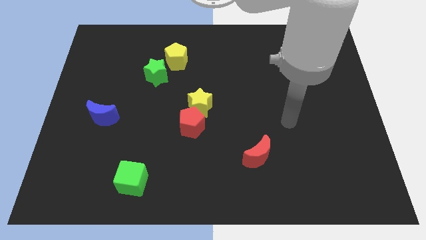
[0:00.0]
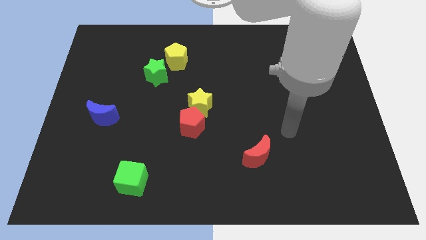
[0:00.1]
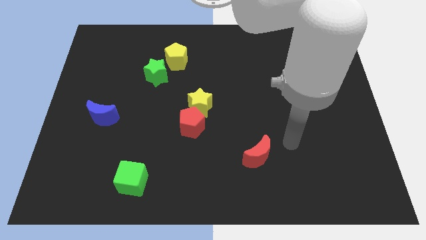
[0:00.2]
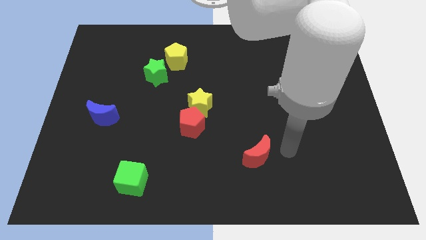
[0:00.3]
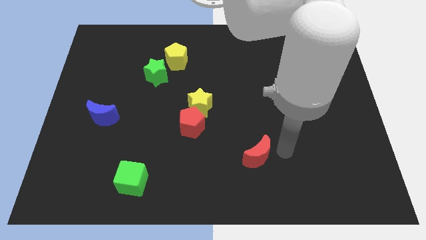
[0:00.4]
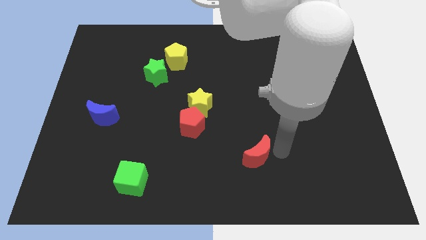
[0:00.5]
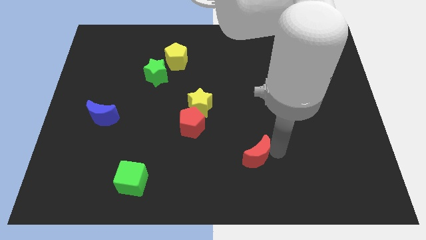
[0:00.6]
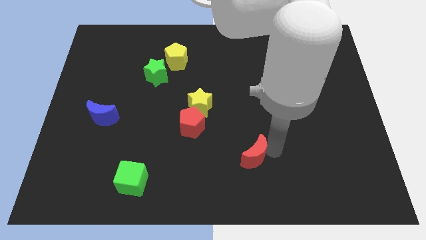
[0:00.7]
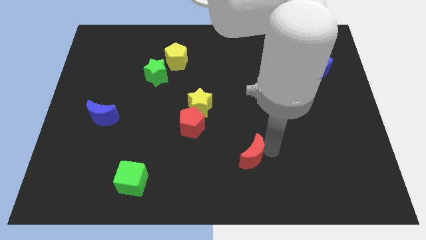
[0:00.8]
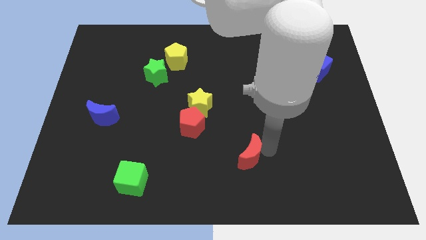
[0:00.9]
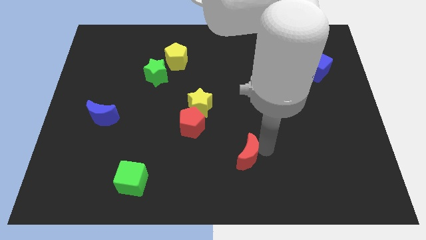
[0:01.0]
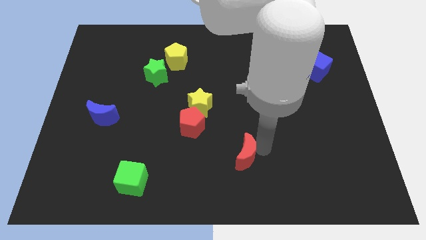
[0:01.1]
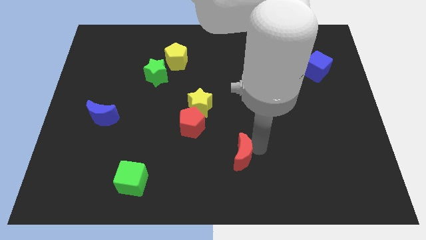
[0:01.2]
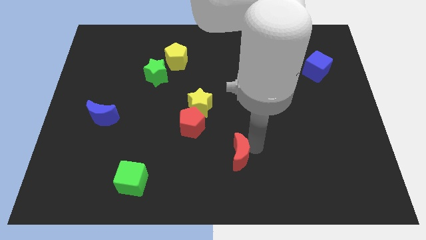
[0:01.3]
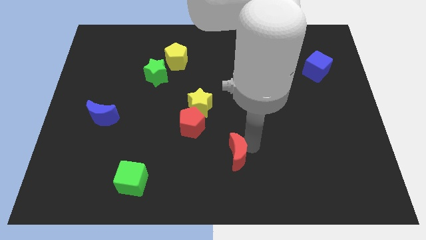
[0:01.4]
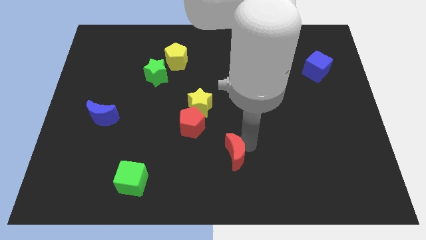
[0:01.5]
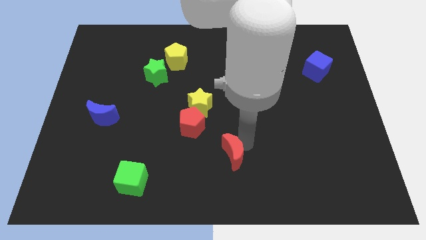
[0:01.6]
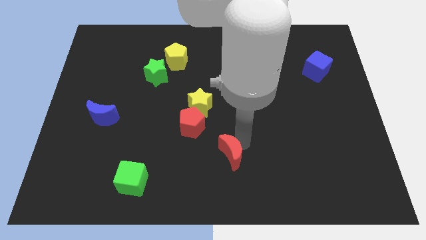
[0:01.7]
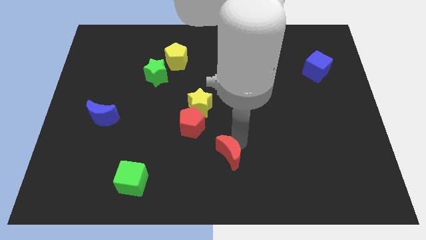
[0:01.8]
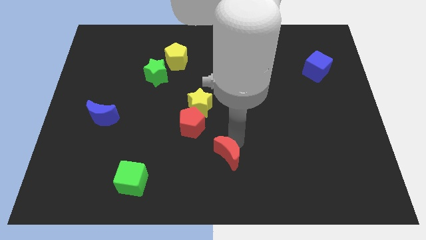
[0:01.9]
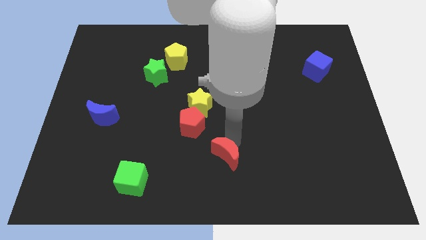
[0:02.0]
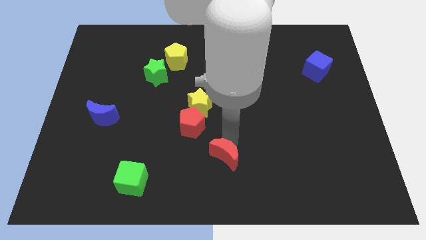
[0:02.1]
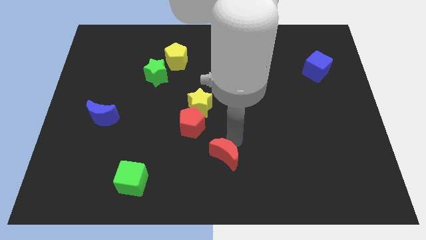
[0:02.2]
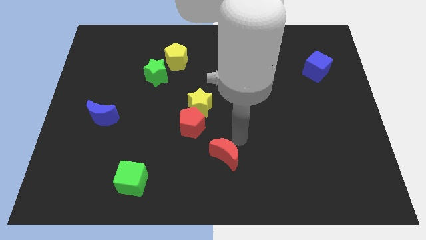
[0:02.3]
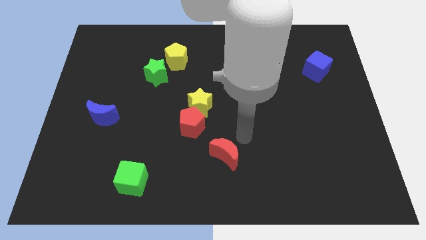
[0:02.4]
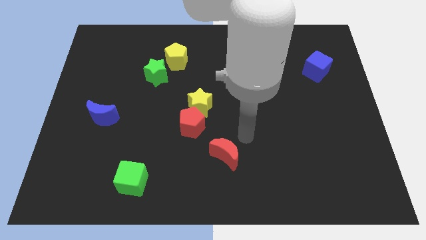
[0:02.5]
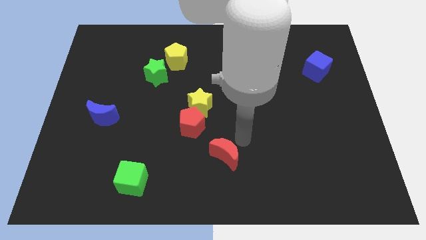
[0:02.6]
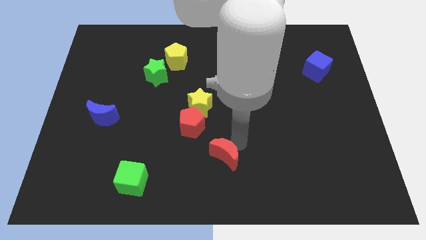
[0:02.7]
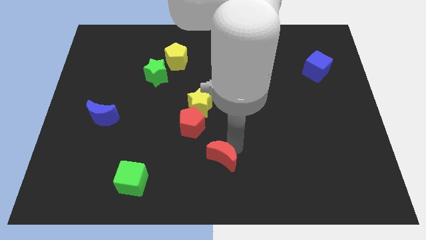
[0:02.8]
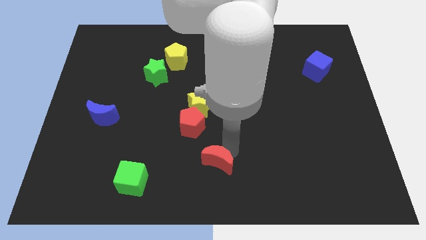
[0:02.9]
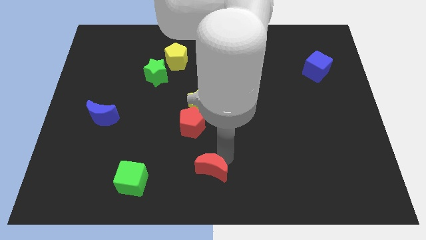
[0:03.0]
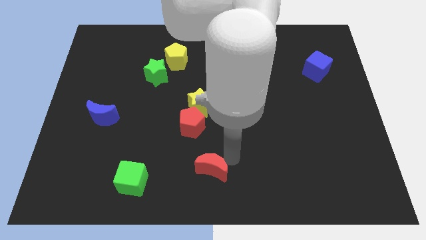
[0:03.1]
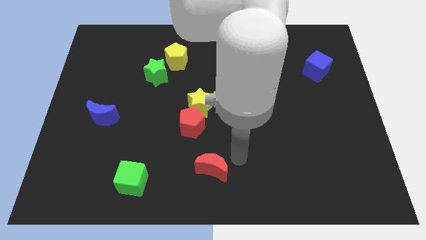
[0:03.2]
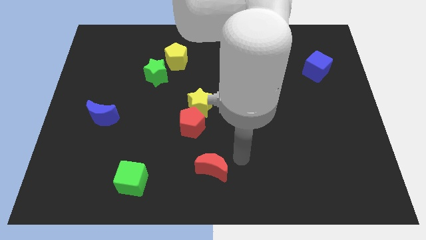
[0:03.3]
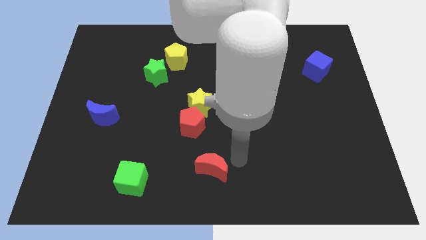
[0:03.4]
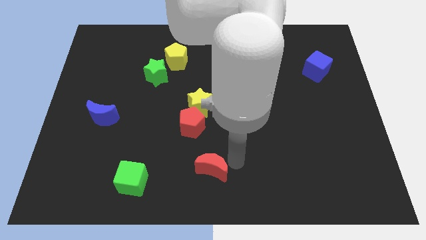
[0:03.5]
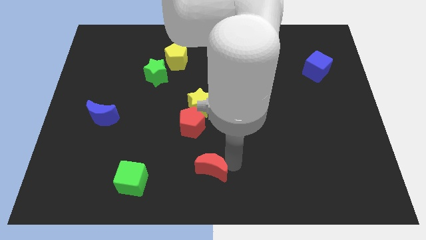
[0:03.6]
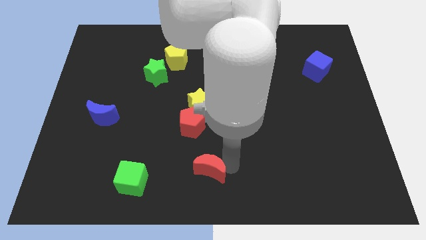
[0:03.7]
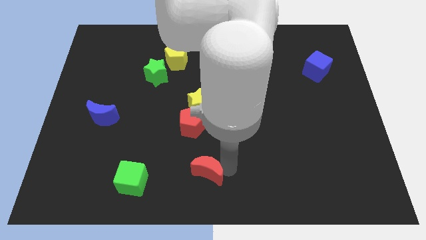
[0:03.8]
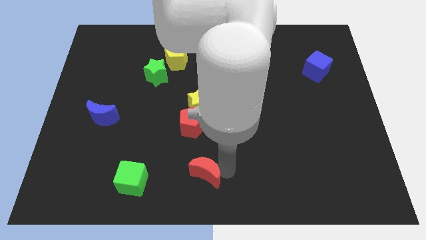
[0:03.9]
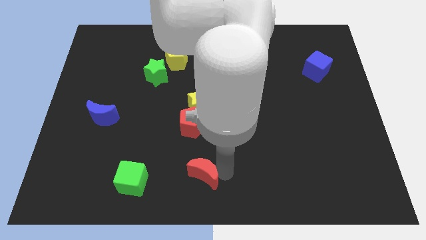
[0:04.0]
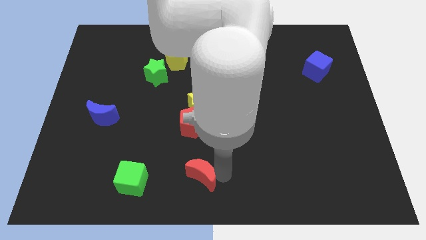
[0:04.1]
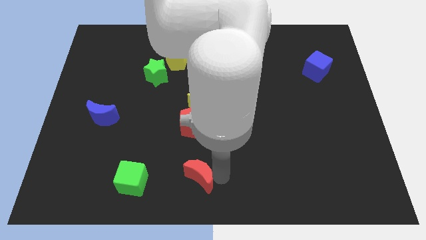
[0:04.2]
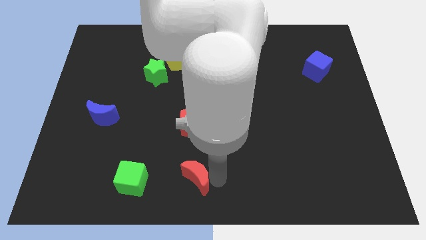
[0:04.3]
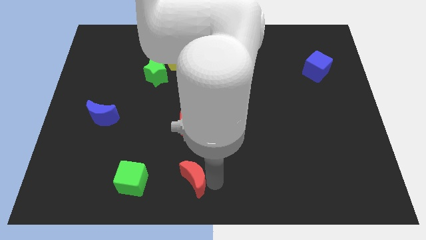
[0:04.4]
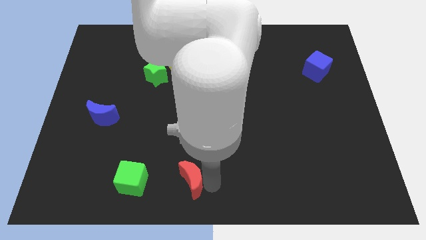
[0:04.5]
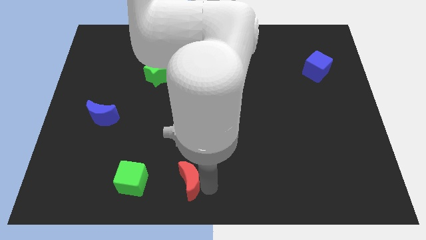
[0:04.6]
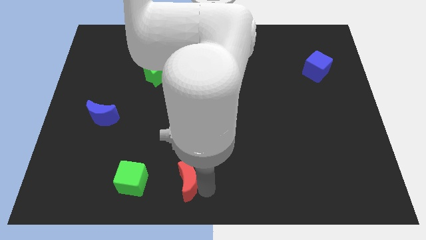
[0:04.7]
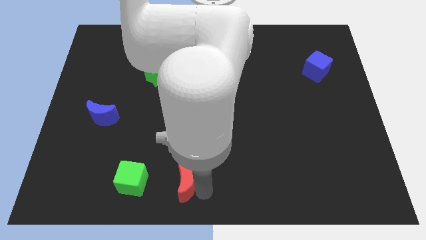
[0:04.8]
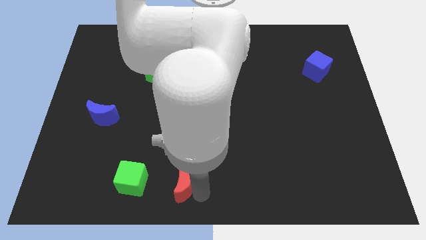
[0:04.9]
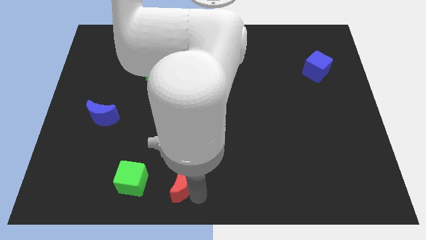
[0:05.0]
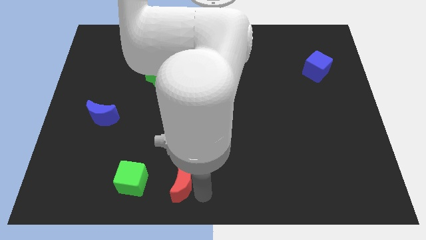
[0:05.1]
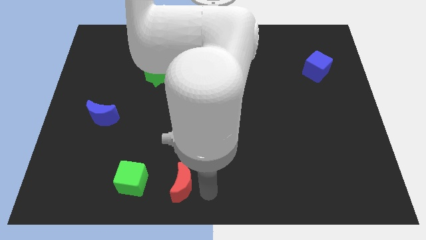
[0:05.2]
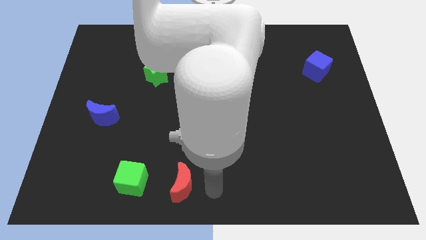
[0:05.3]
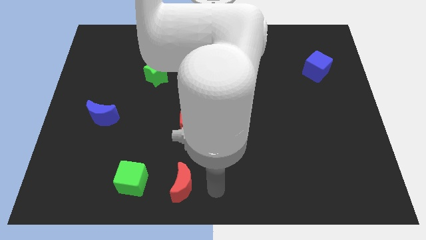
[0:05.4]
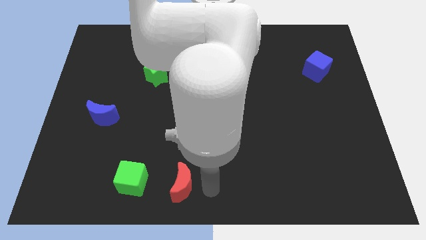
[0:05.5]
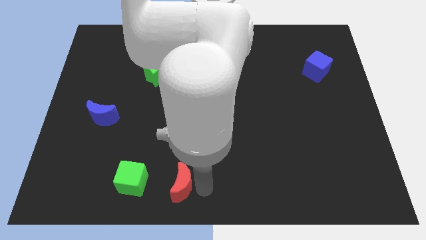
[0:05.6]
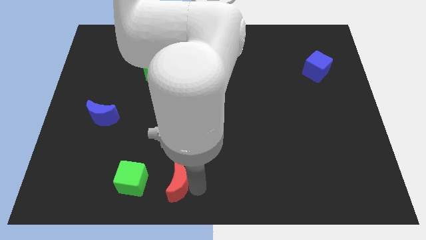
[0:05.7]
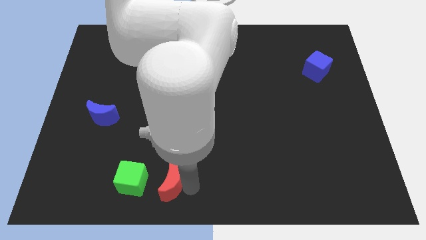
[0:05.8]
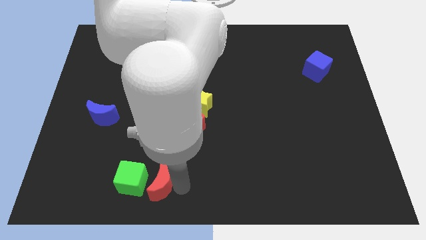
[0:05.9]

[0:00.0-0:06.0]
move the red moon to the green cube
